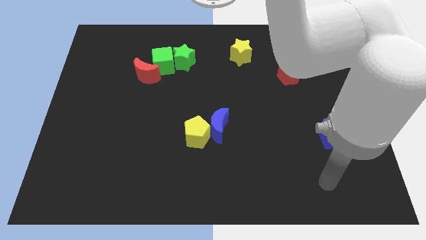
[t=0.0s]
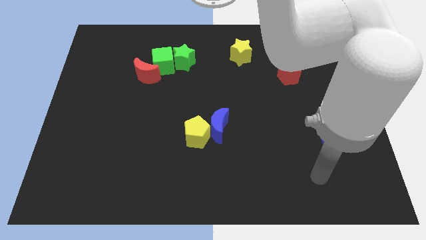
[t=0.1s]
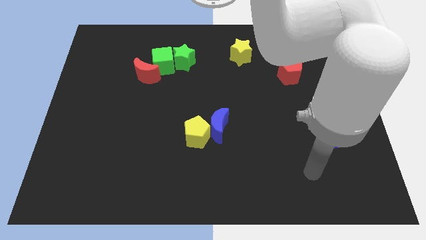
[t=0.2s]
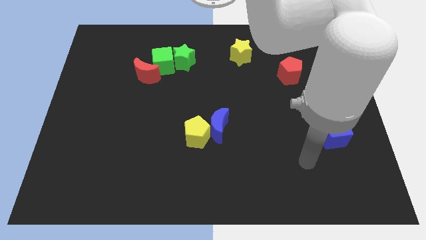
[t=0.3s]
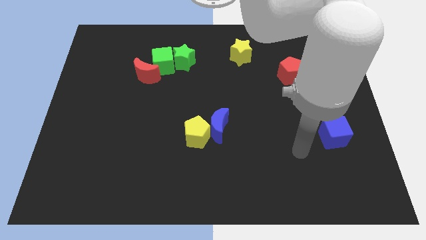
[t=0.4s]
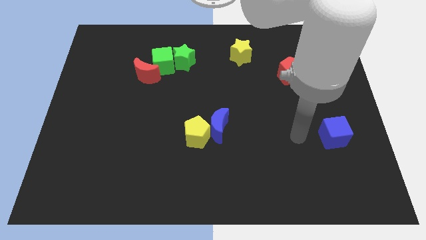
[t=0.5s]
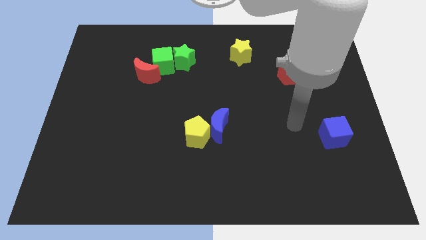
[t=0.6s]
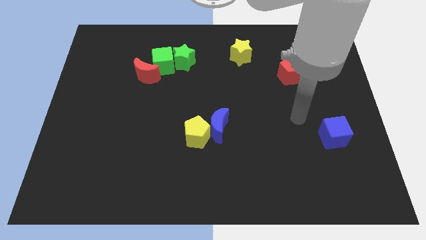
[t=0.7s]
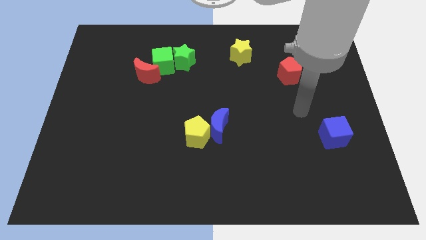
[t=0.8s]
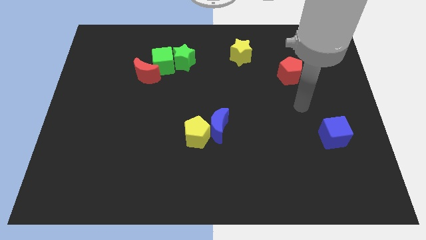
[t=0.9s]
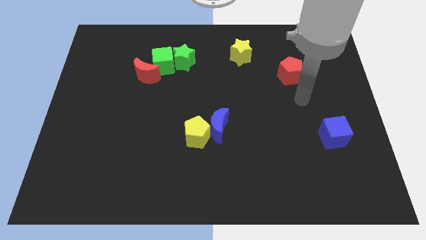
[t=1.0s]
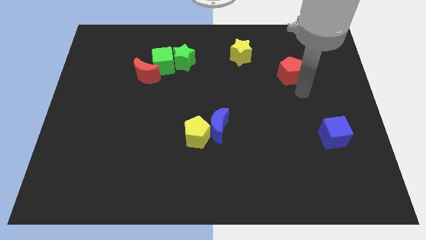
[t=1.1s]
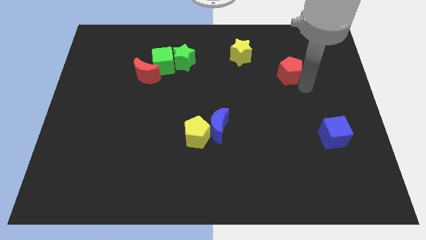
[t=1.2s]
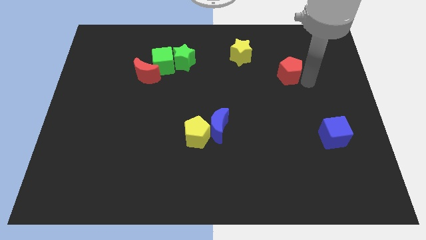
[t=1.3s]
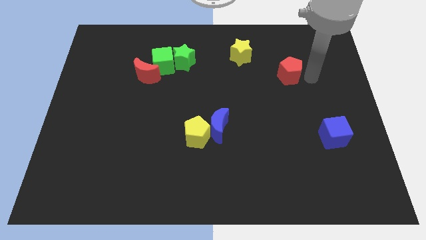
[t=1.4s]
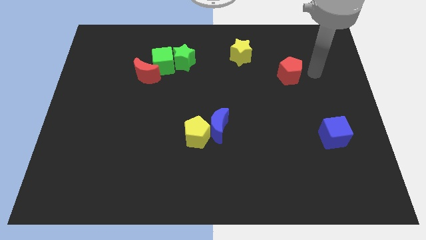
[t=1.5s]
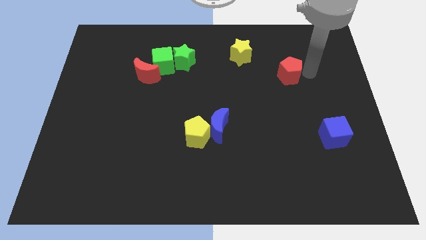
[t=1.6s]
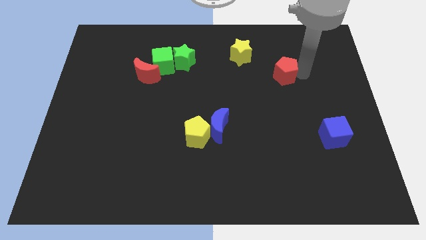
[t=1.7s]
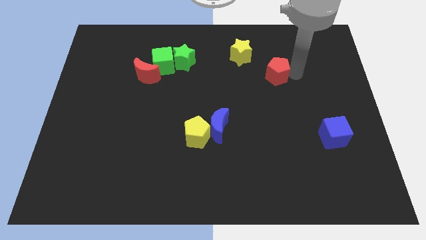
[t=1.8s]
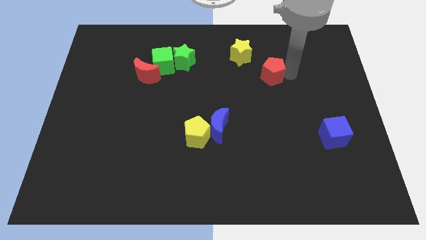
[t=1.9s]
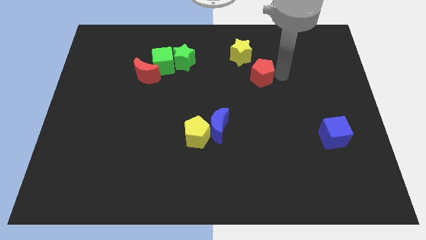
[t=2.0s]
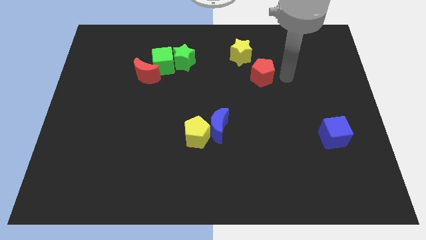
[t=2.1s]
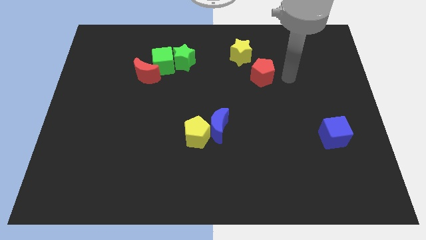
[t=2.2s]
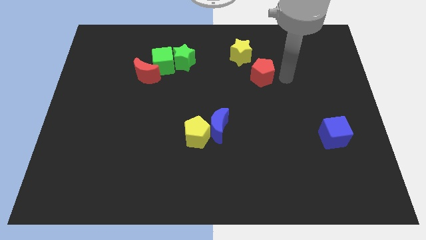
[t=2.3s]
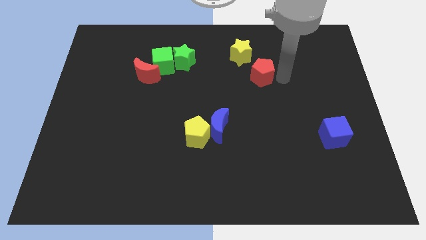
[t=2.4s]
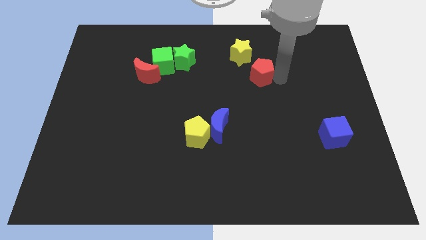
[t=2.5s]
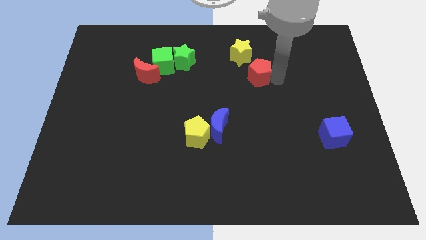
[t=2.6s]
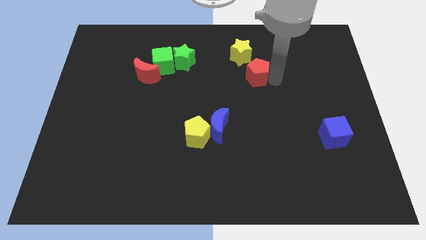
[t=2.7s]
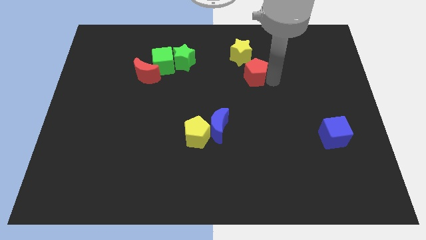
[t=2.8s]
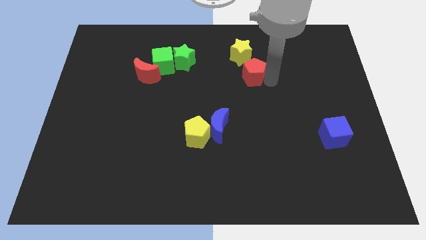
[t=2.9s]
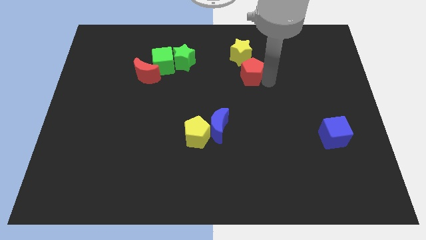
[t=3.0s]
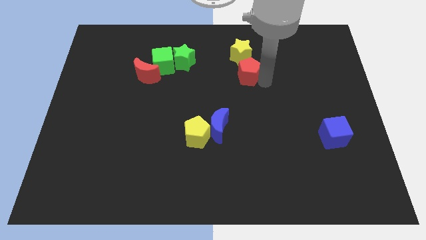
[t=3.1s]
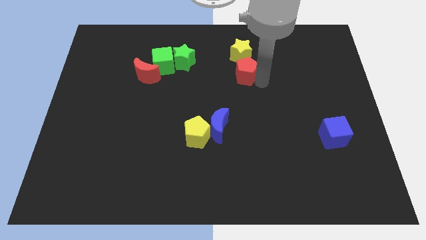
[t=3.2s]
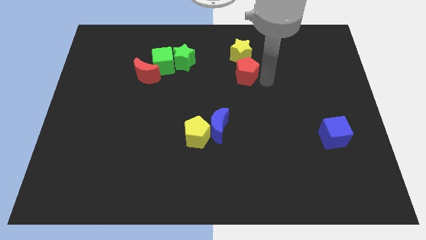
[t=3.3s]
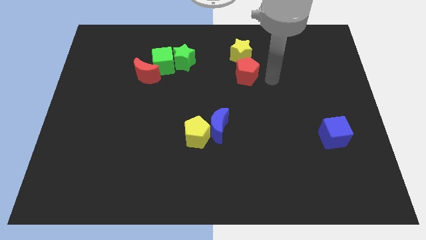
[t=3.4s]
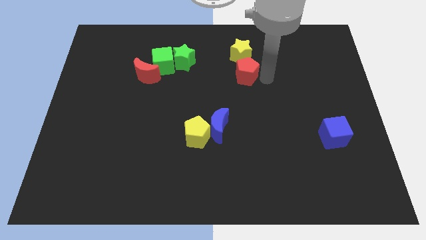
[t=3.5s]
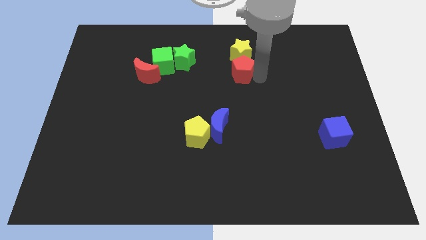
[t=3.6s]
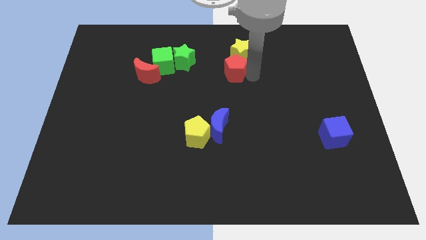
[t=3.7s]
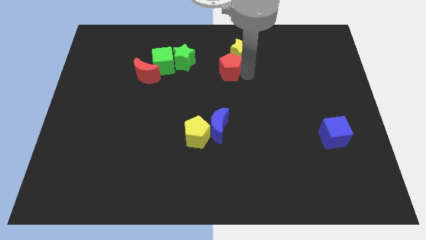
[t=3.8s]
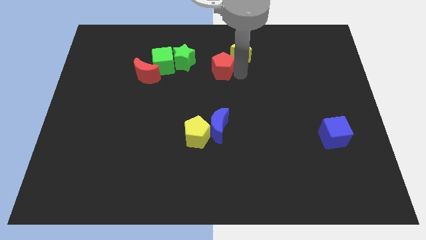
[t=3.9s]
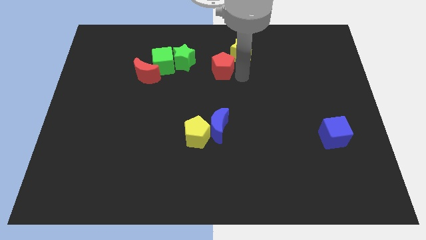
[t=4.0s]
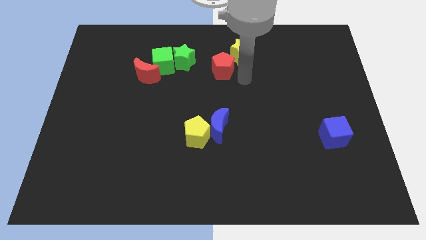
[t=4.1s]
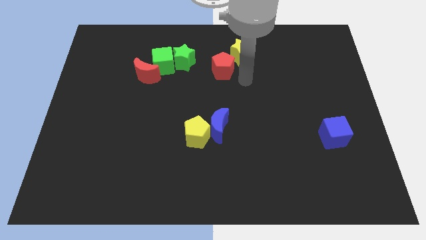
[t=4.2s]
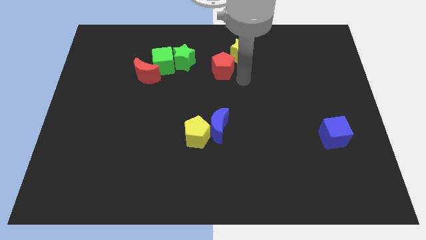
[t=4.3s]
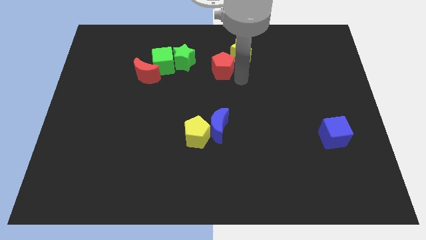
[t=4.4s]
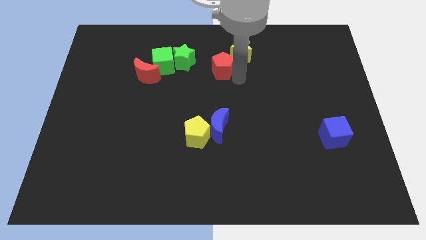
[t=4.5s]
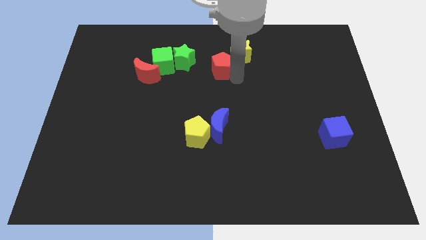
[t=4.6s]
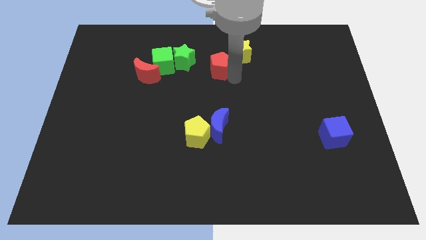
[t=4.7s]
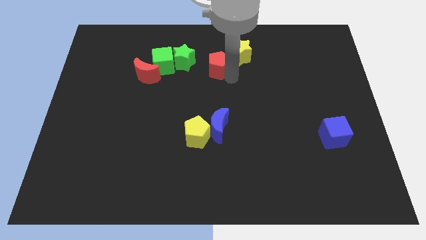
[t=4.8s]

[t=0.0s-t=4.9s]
slide the red pentagon to the left side of the yellow star

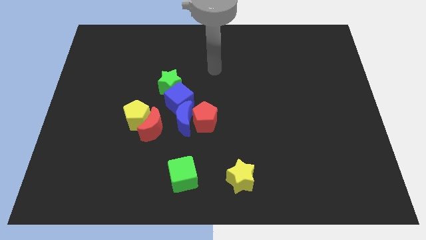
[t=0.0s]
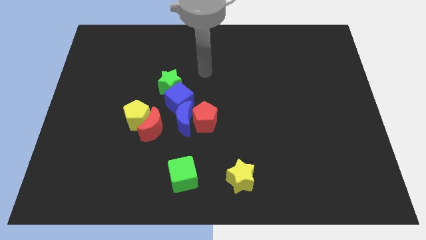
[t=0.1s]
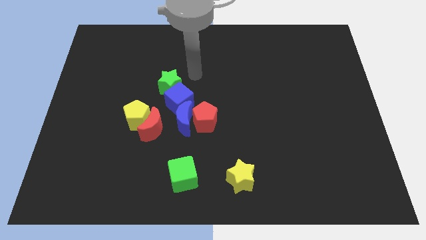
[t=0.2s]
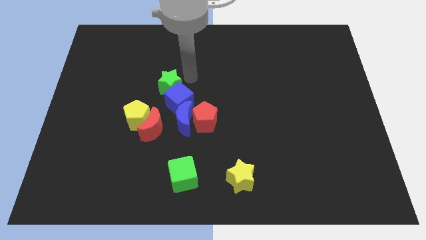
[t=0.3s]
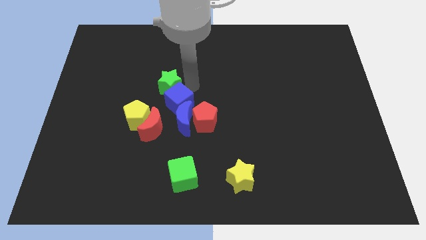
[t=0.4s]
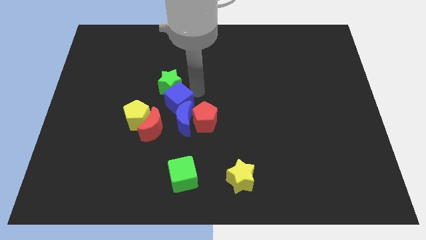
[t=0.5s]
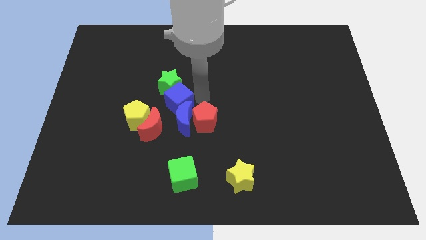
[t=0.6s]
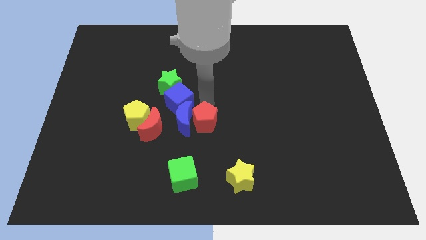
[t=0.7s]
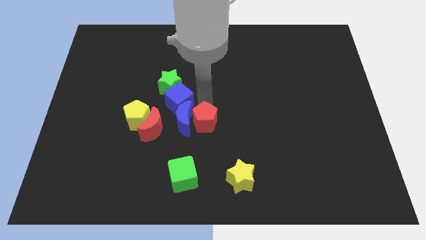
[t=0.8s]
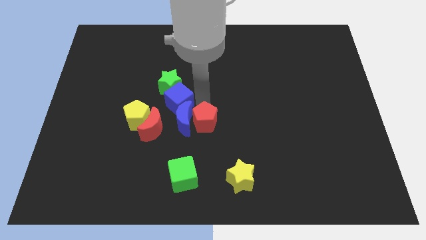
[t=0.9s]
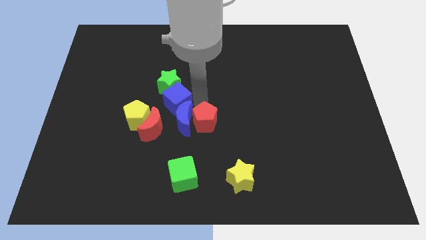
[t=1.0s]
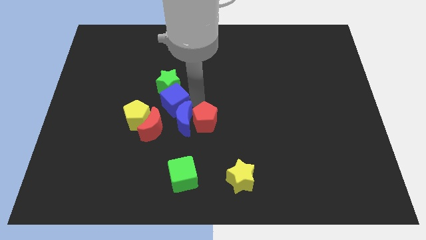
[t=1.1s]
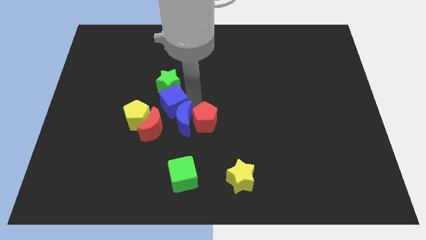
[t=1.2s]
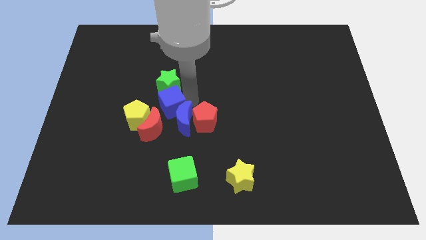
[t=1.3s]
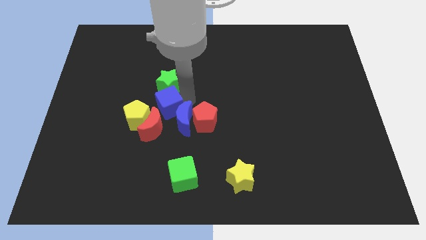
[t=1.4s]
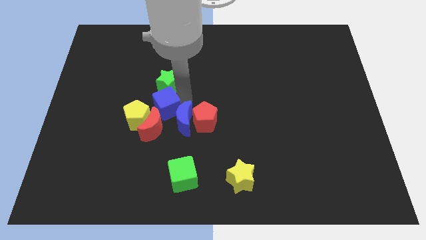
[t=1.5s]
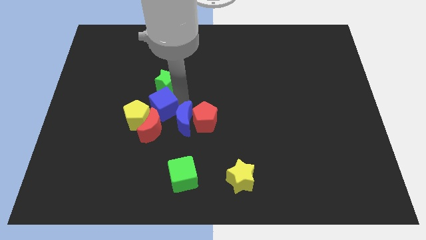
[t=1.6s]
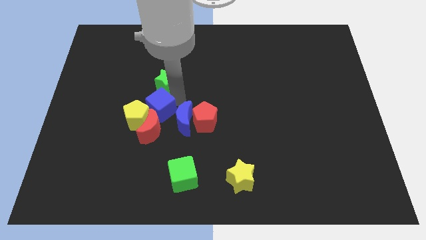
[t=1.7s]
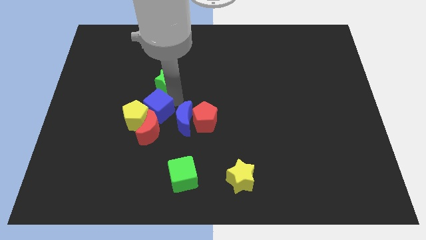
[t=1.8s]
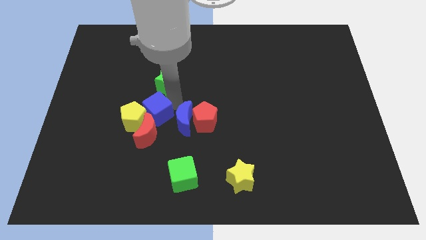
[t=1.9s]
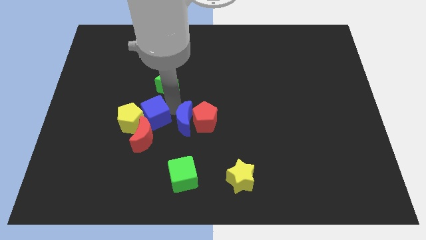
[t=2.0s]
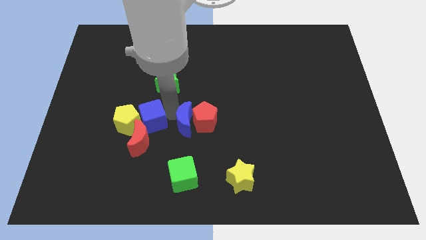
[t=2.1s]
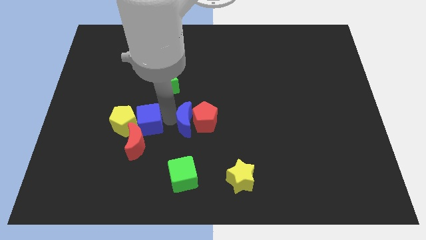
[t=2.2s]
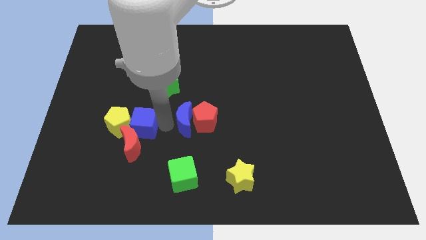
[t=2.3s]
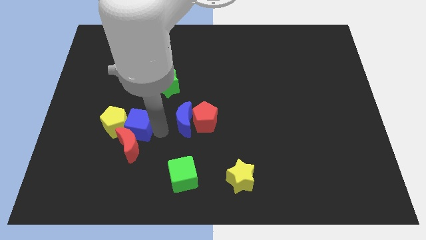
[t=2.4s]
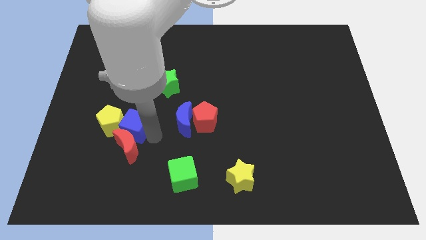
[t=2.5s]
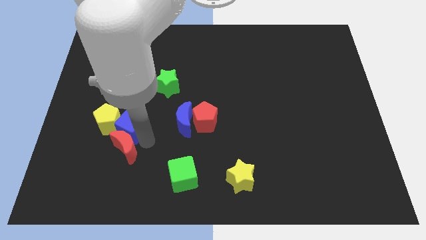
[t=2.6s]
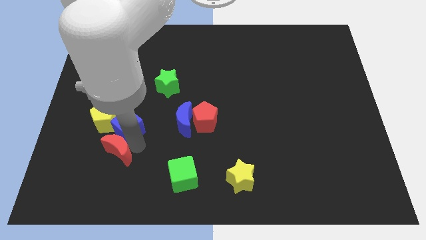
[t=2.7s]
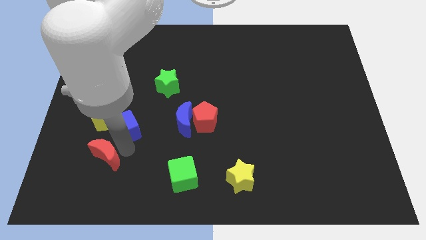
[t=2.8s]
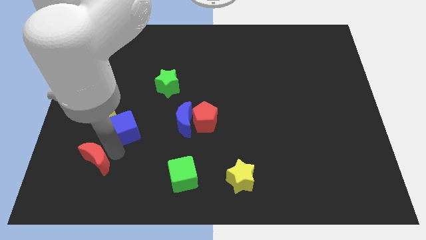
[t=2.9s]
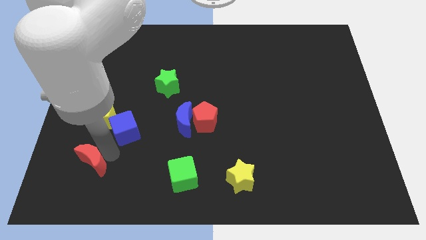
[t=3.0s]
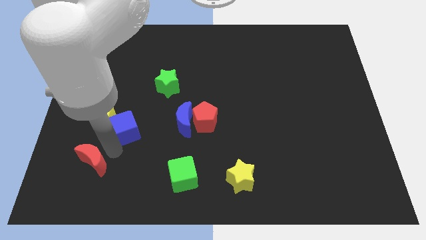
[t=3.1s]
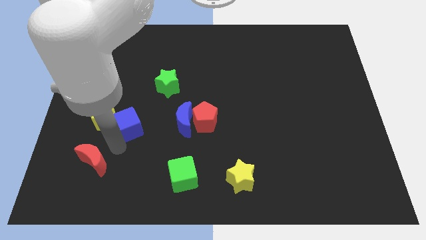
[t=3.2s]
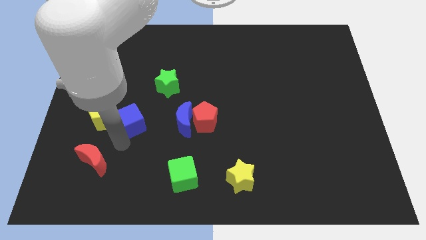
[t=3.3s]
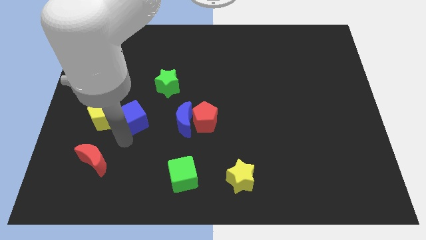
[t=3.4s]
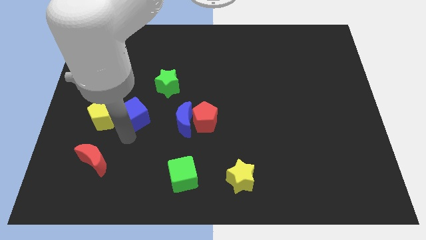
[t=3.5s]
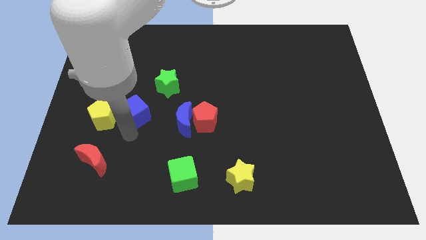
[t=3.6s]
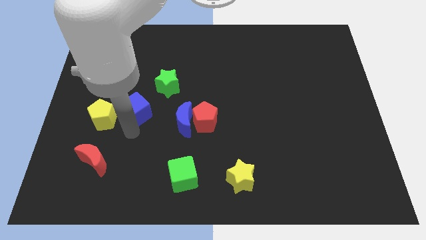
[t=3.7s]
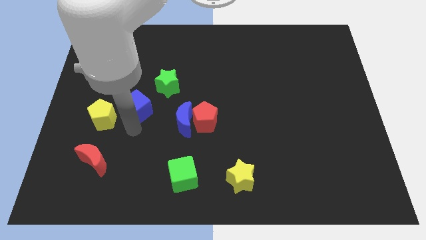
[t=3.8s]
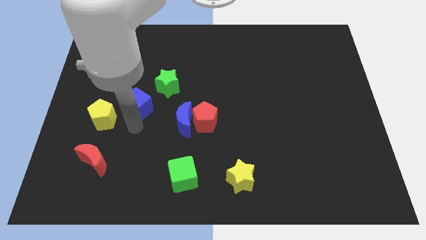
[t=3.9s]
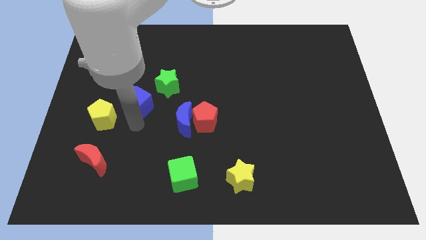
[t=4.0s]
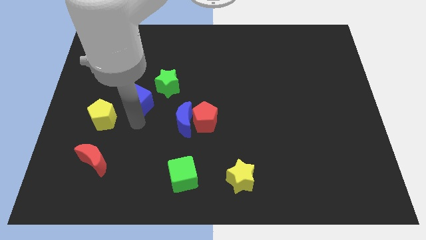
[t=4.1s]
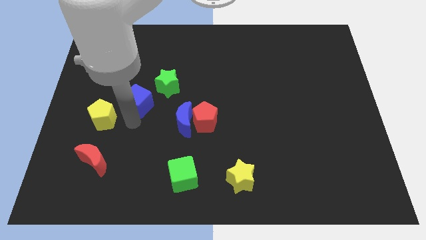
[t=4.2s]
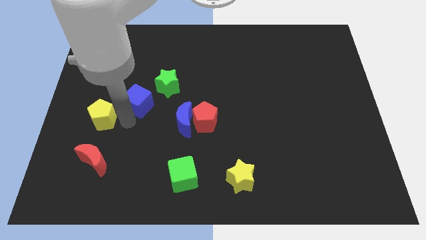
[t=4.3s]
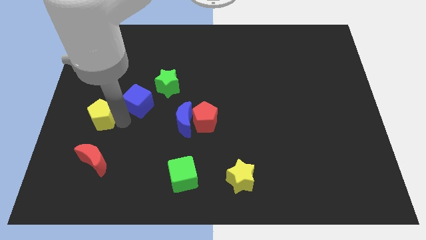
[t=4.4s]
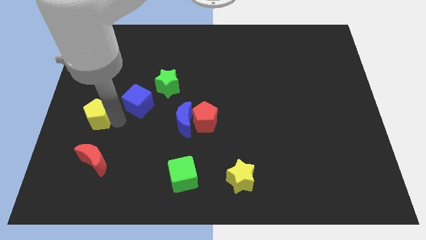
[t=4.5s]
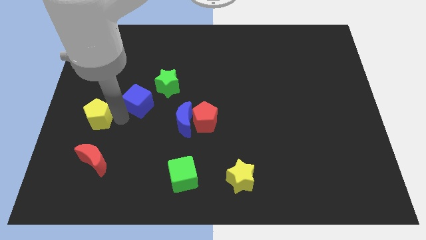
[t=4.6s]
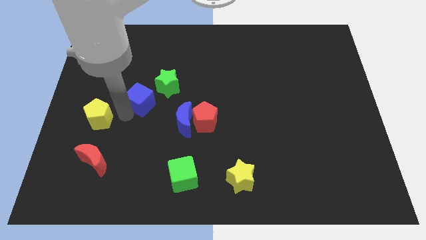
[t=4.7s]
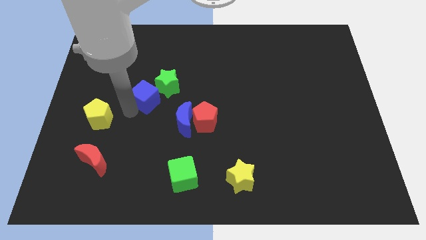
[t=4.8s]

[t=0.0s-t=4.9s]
push the blue cube just left of the green star
